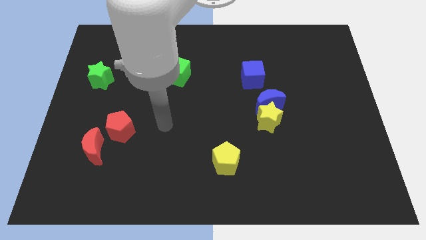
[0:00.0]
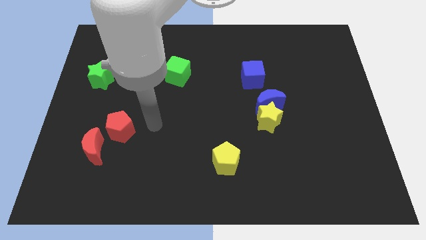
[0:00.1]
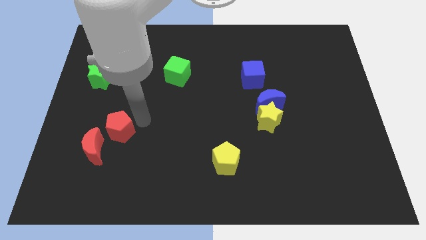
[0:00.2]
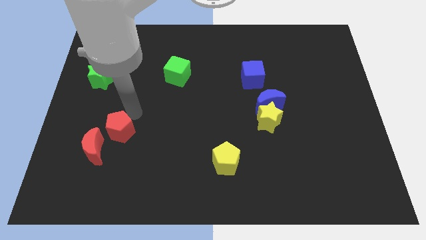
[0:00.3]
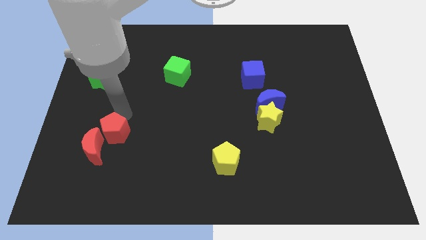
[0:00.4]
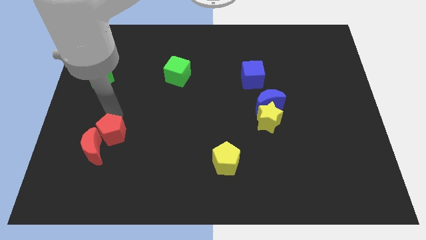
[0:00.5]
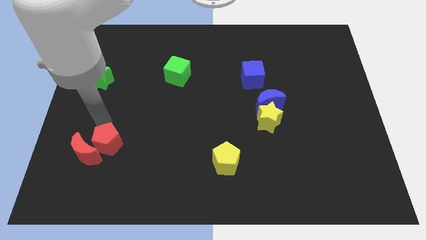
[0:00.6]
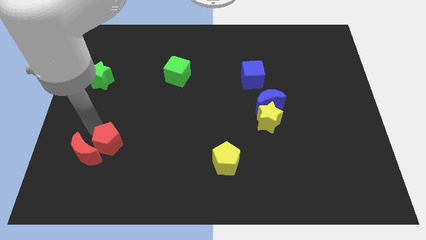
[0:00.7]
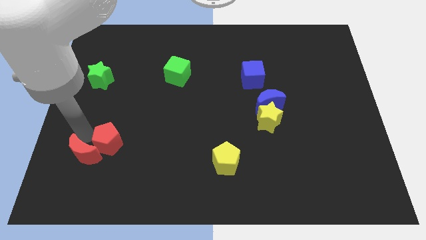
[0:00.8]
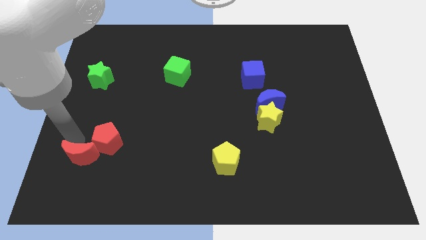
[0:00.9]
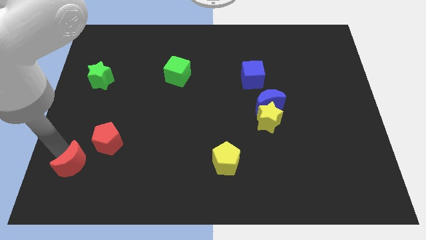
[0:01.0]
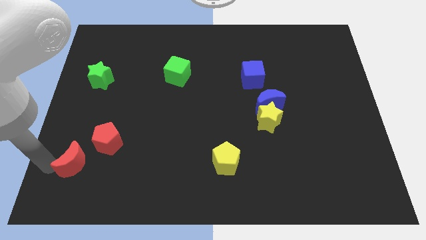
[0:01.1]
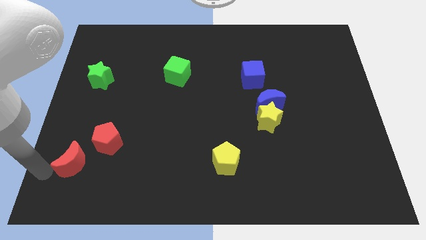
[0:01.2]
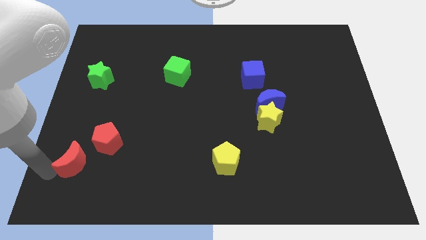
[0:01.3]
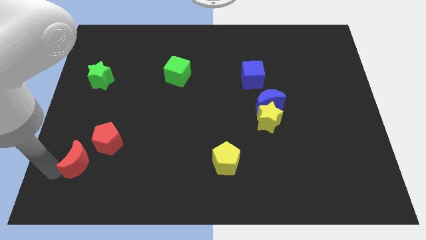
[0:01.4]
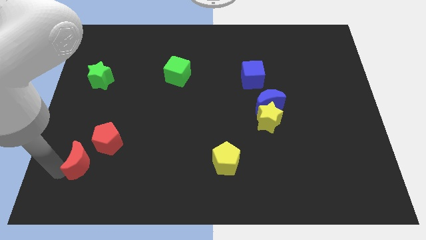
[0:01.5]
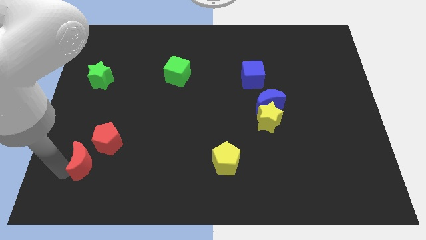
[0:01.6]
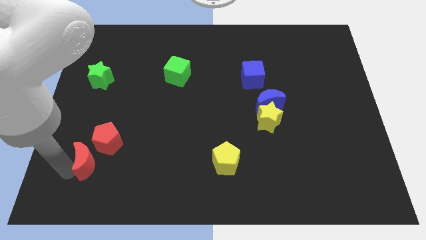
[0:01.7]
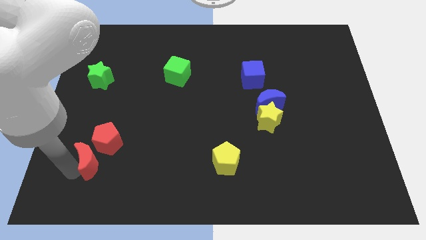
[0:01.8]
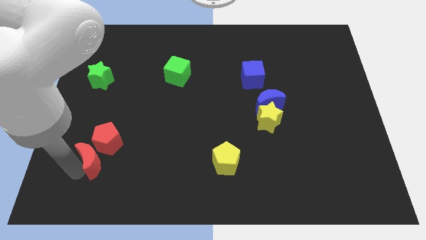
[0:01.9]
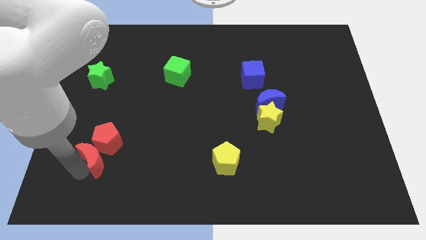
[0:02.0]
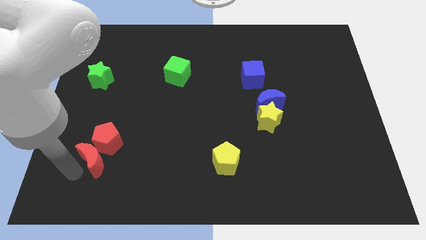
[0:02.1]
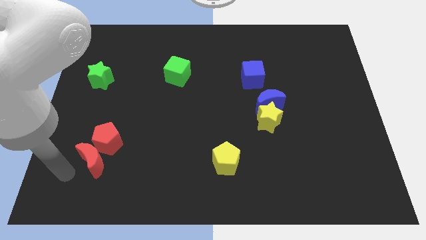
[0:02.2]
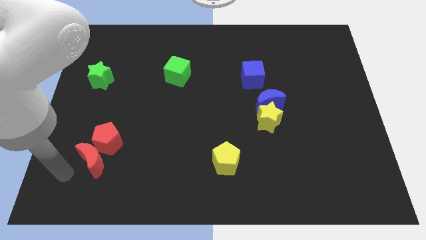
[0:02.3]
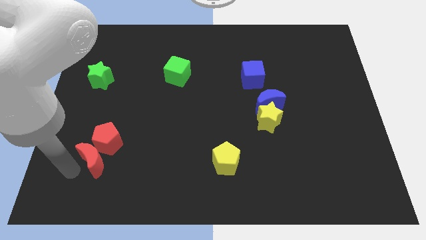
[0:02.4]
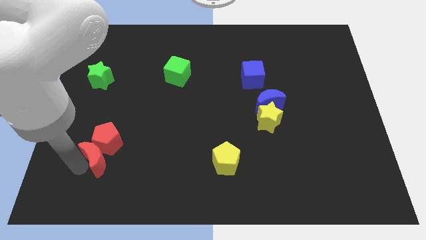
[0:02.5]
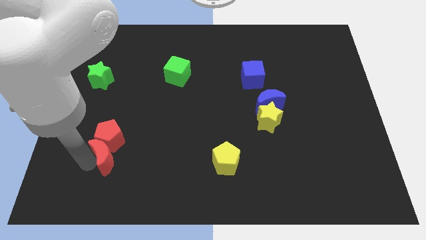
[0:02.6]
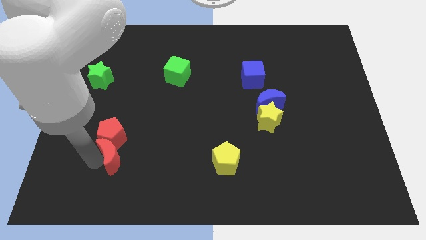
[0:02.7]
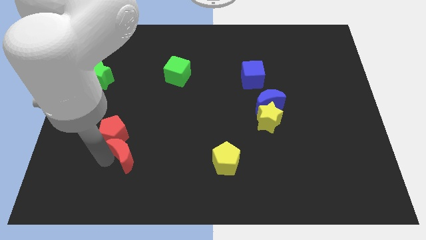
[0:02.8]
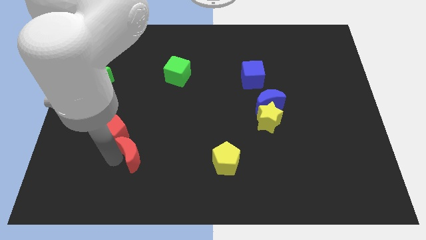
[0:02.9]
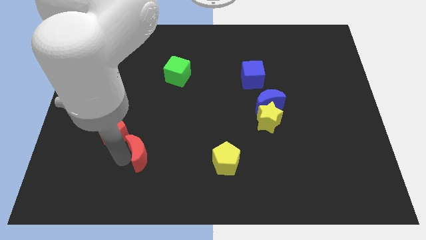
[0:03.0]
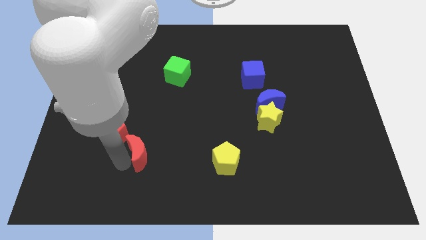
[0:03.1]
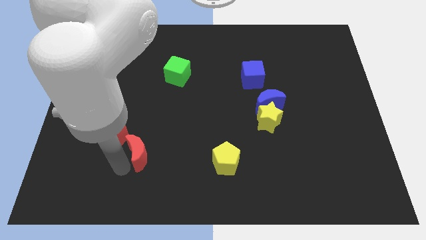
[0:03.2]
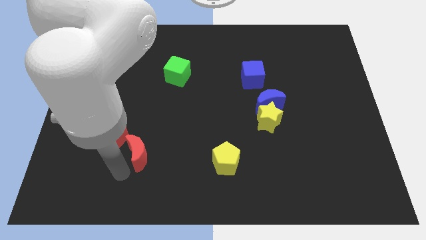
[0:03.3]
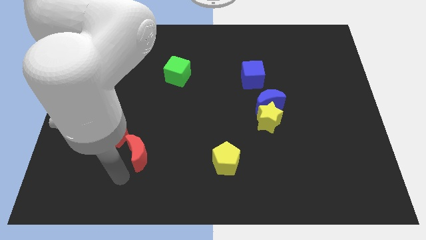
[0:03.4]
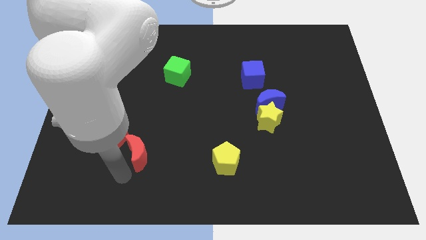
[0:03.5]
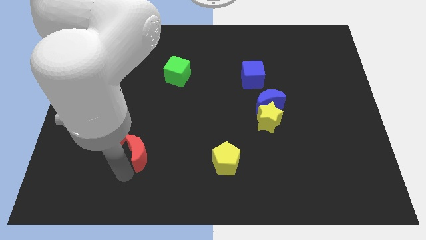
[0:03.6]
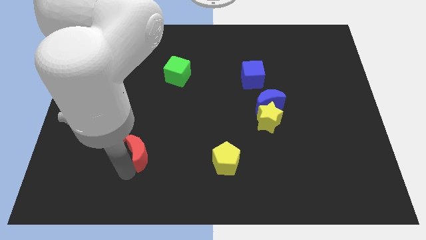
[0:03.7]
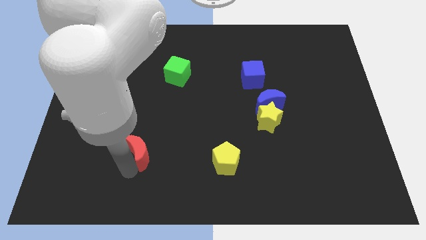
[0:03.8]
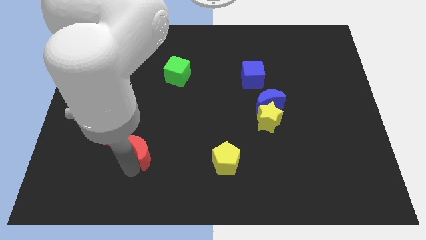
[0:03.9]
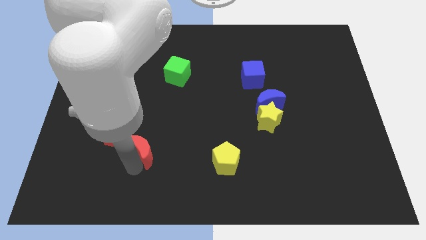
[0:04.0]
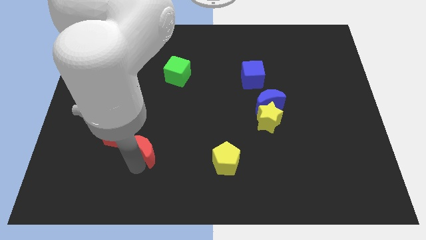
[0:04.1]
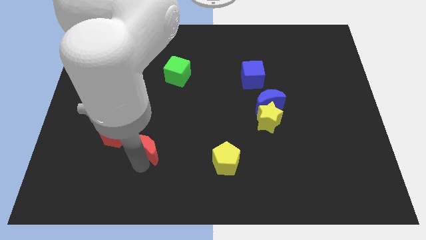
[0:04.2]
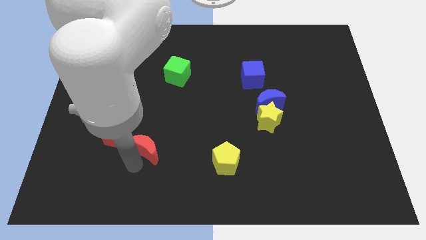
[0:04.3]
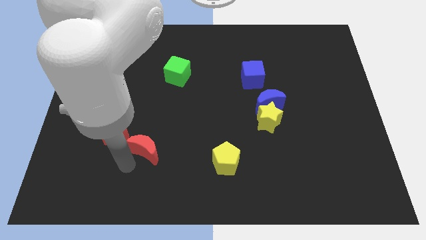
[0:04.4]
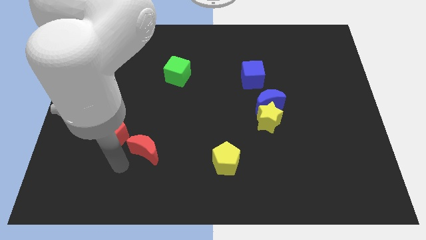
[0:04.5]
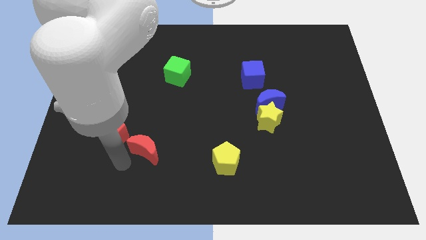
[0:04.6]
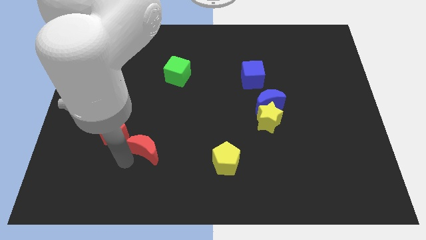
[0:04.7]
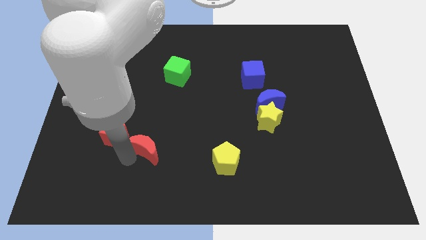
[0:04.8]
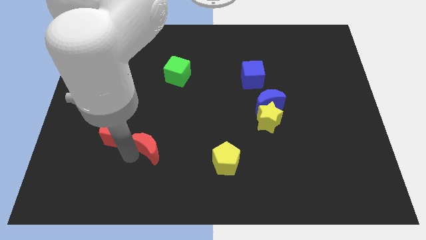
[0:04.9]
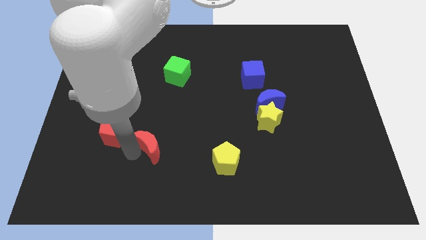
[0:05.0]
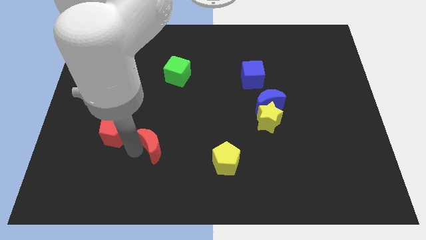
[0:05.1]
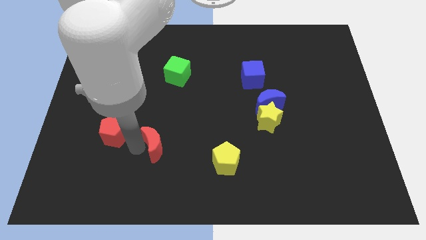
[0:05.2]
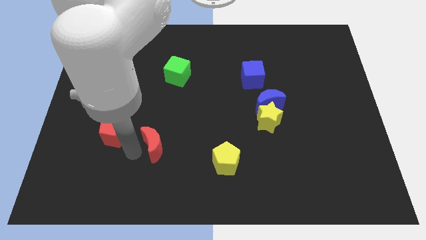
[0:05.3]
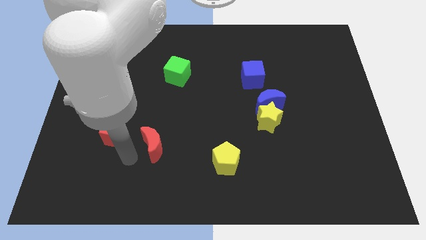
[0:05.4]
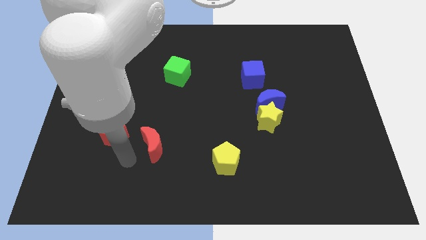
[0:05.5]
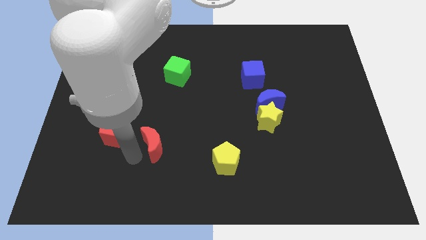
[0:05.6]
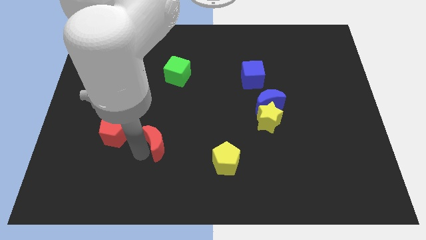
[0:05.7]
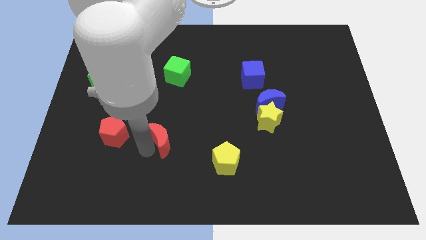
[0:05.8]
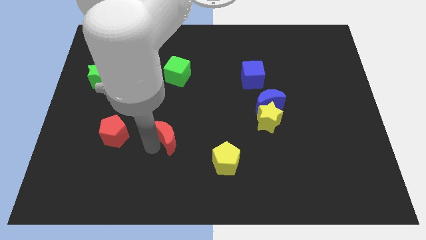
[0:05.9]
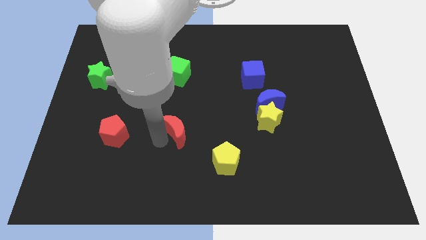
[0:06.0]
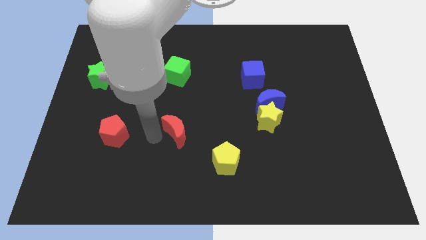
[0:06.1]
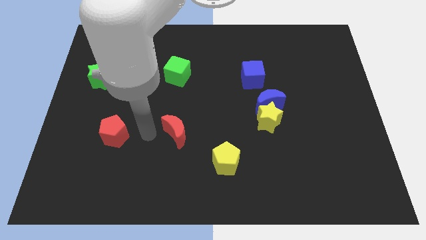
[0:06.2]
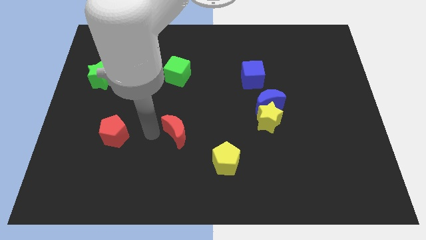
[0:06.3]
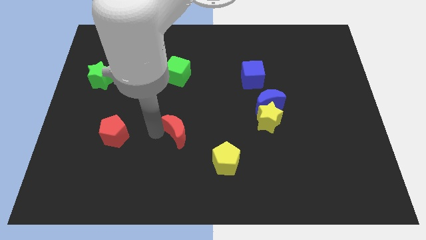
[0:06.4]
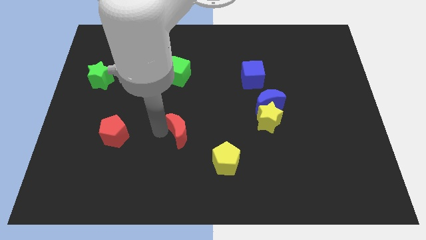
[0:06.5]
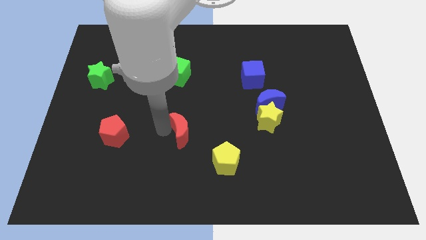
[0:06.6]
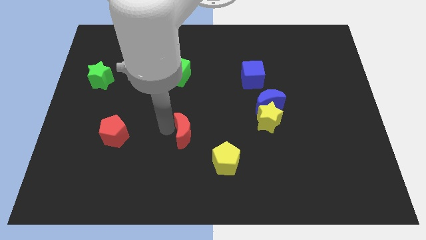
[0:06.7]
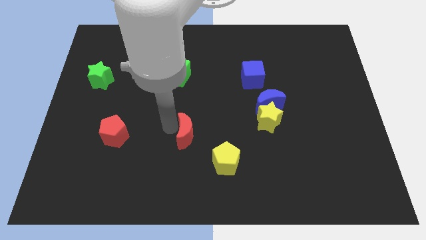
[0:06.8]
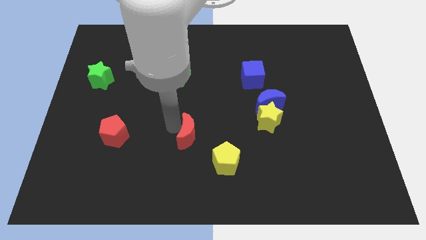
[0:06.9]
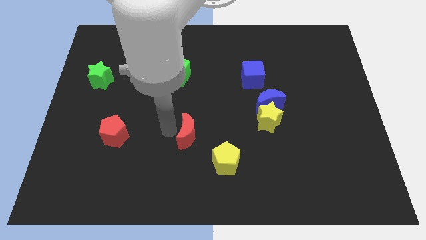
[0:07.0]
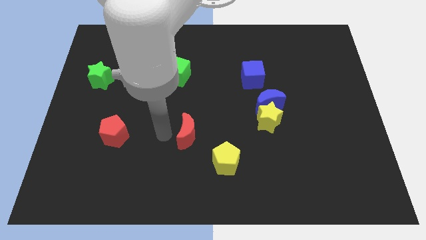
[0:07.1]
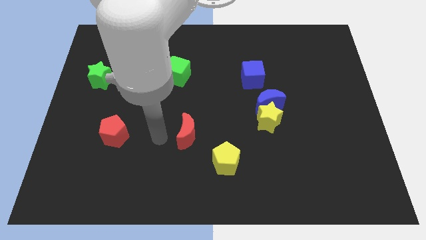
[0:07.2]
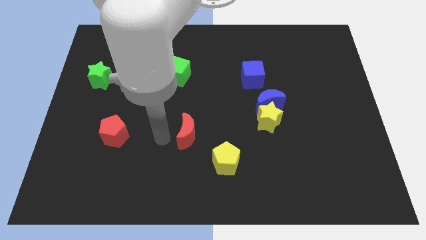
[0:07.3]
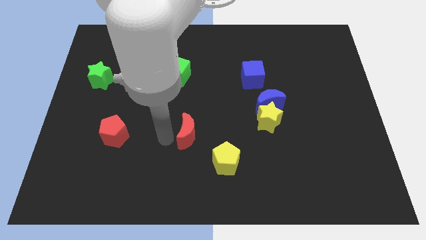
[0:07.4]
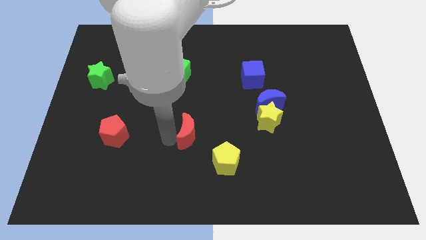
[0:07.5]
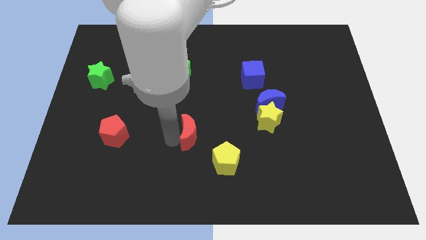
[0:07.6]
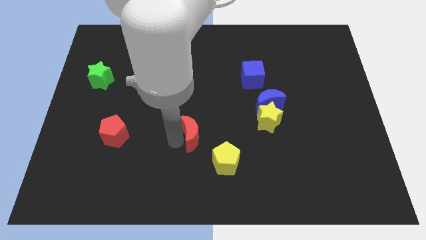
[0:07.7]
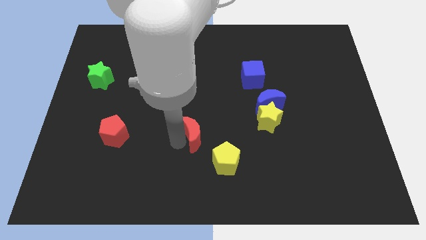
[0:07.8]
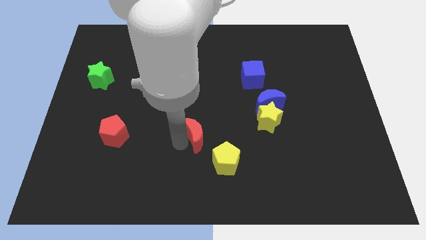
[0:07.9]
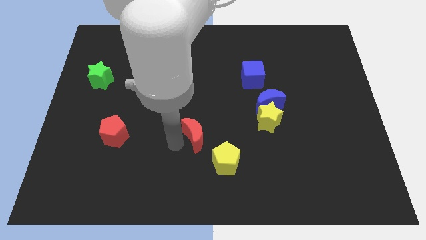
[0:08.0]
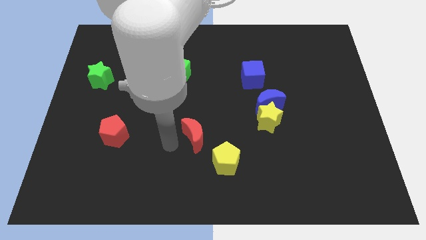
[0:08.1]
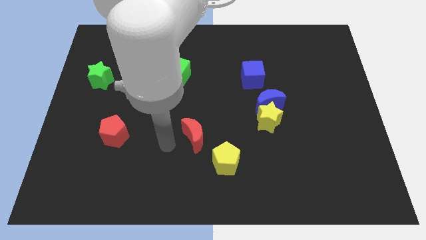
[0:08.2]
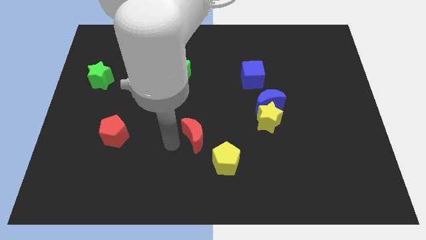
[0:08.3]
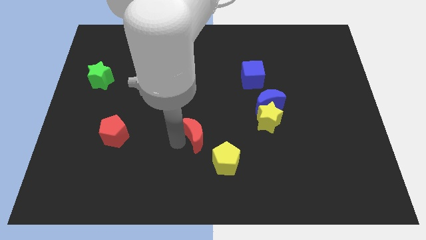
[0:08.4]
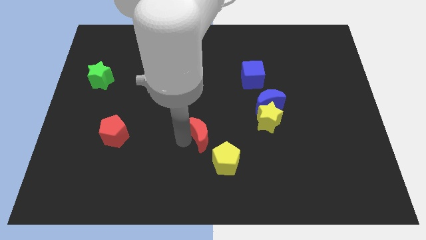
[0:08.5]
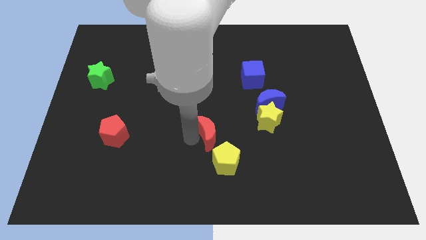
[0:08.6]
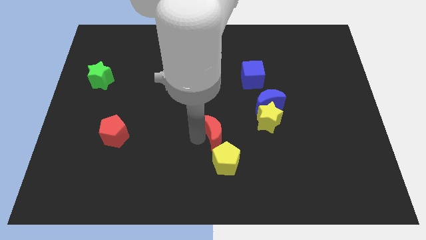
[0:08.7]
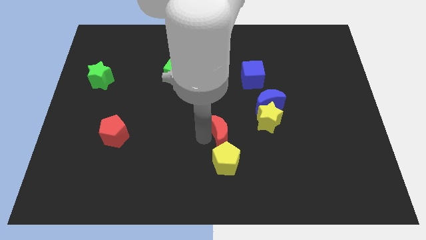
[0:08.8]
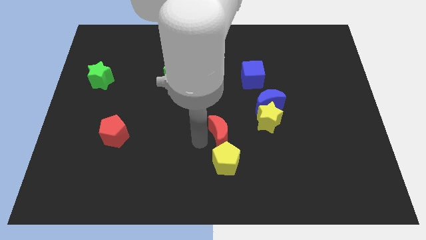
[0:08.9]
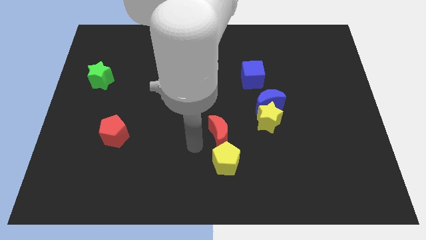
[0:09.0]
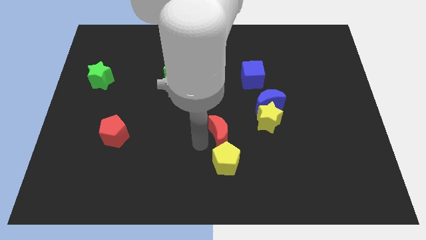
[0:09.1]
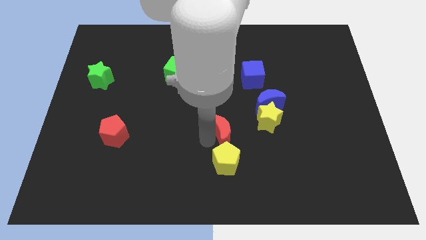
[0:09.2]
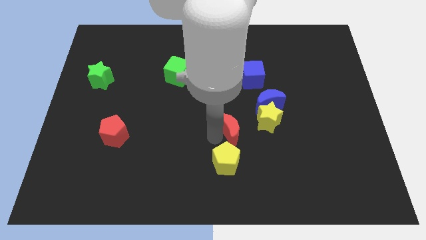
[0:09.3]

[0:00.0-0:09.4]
put the red moon diagonally down and to the left of the blue moon
